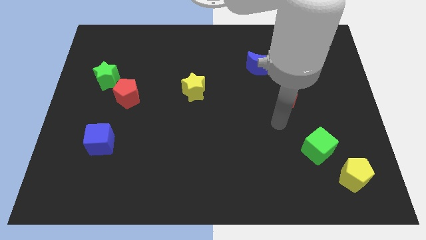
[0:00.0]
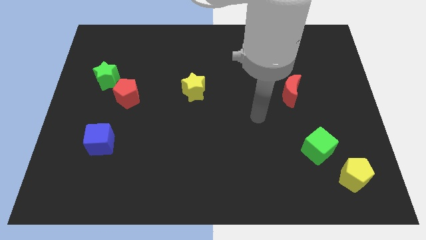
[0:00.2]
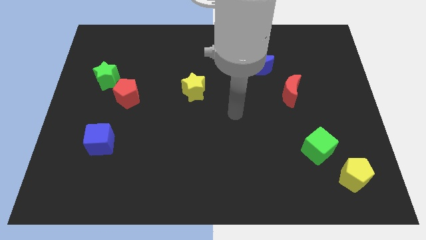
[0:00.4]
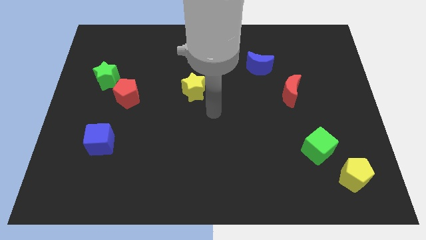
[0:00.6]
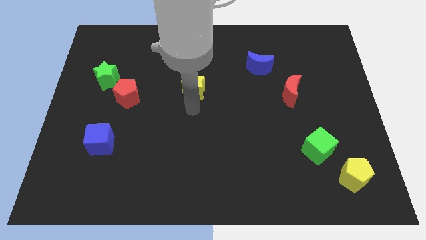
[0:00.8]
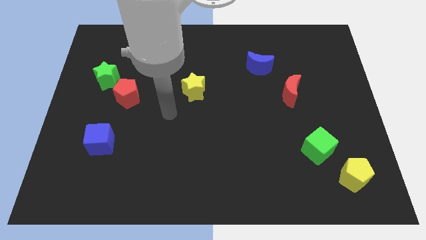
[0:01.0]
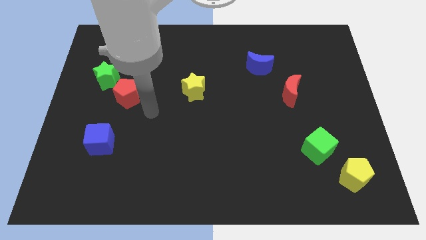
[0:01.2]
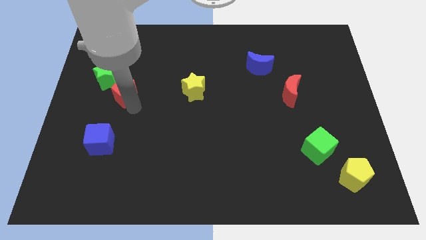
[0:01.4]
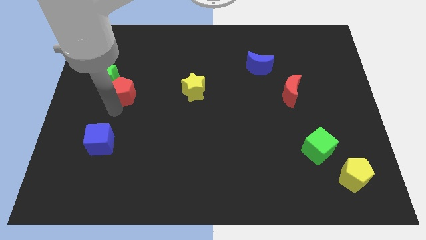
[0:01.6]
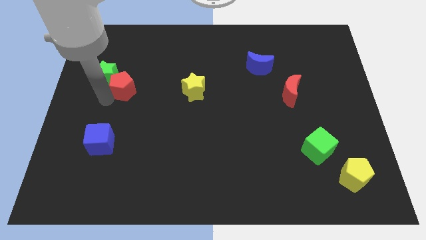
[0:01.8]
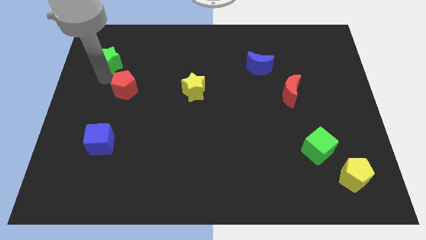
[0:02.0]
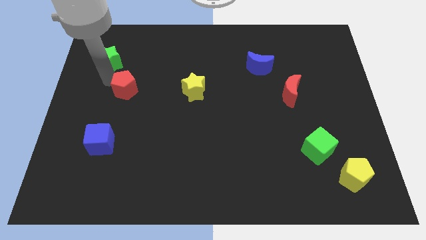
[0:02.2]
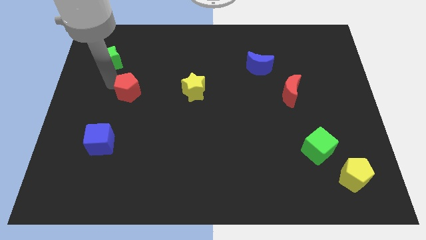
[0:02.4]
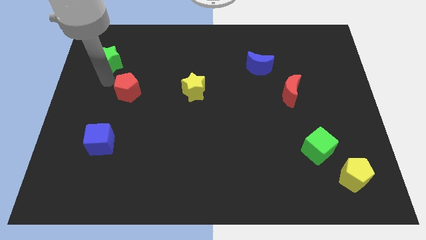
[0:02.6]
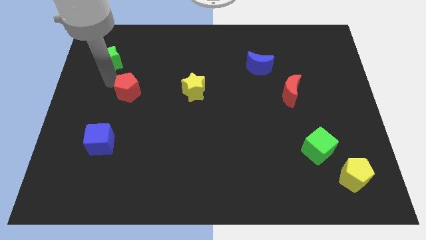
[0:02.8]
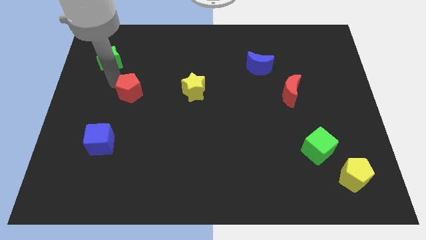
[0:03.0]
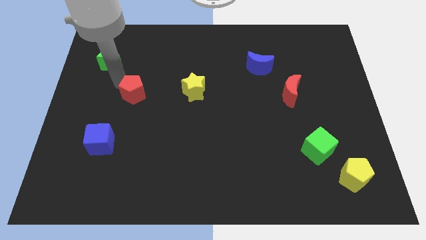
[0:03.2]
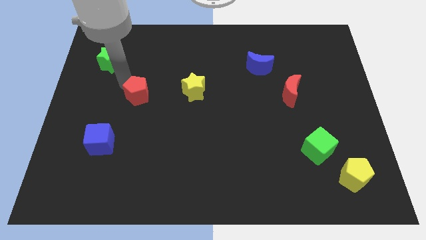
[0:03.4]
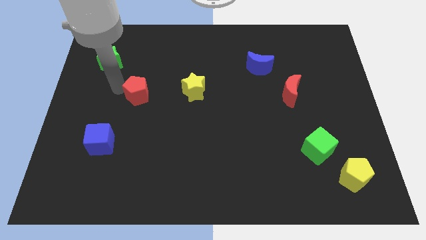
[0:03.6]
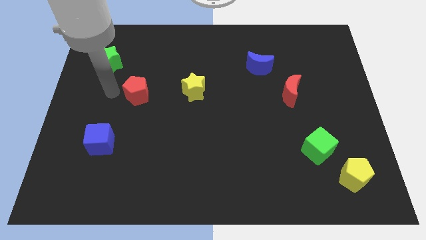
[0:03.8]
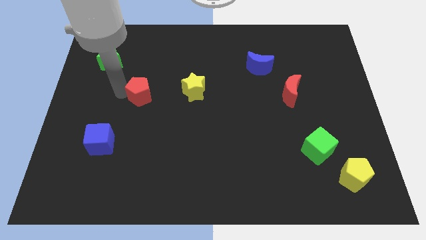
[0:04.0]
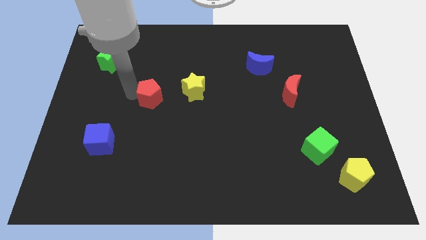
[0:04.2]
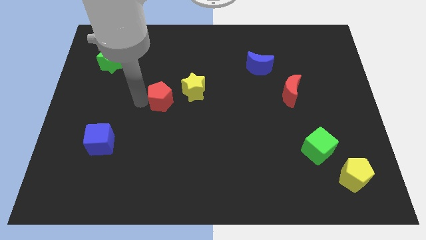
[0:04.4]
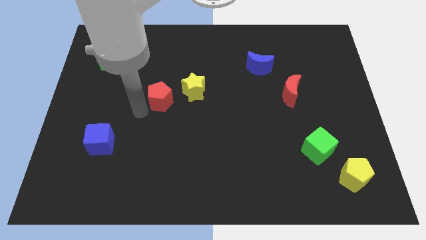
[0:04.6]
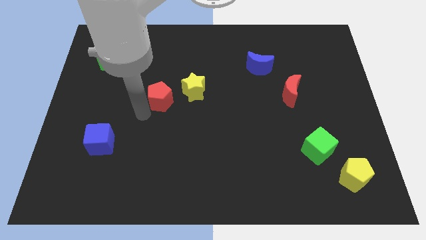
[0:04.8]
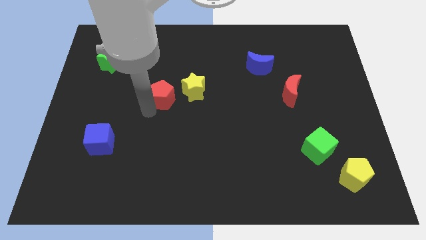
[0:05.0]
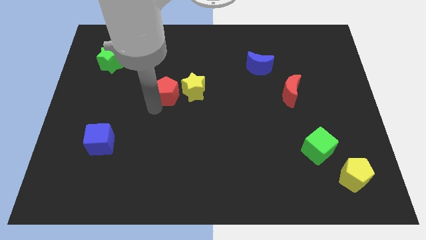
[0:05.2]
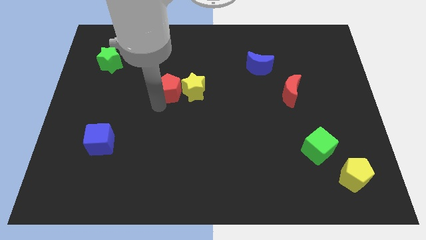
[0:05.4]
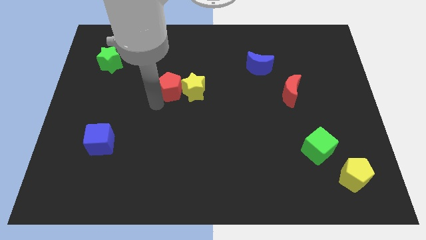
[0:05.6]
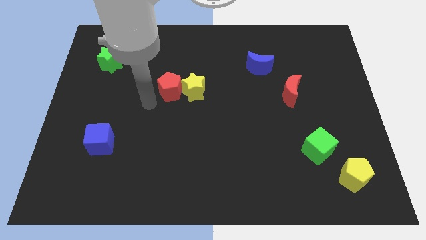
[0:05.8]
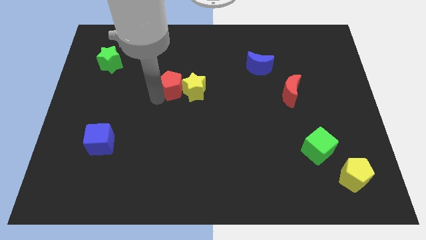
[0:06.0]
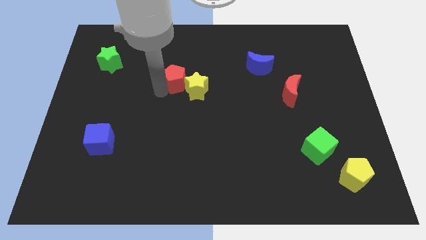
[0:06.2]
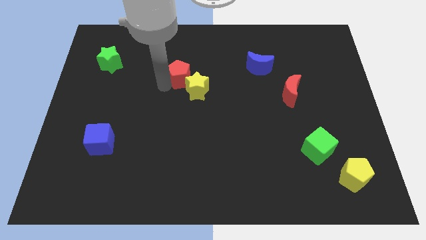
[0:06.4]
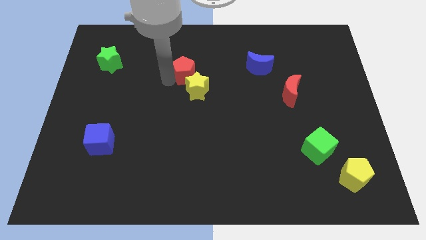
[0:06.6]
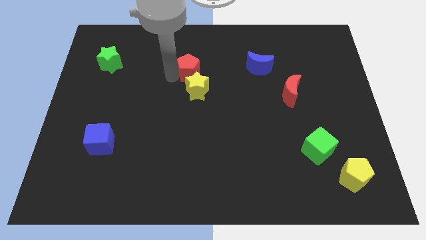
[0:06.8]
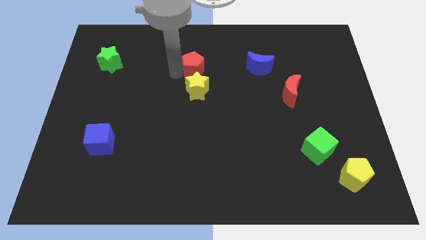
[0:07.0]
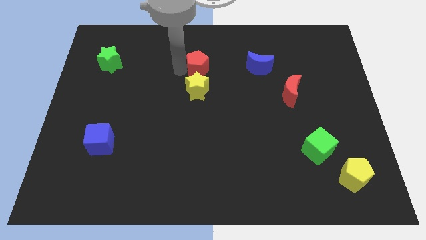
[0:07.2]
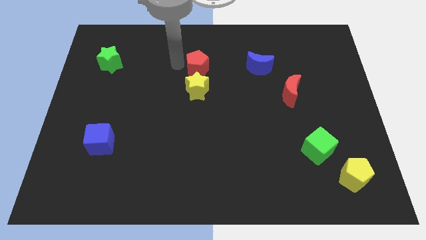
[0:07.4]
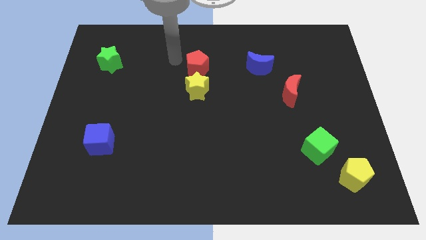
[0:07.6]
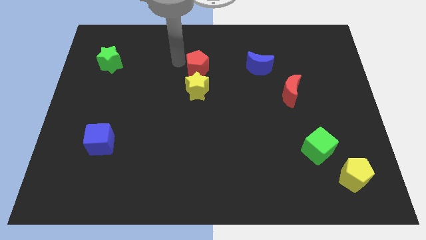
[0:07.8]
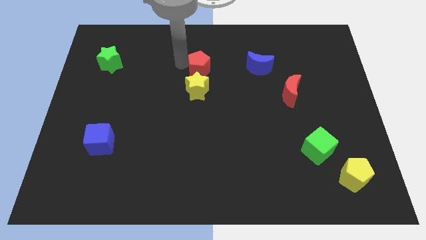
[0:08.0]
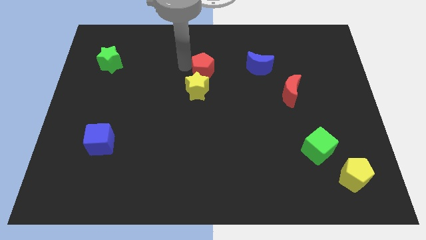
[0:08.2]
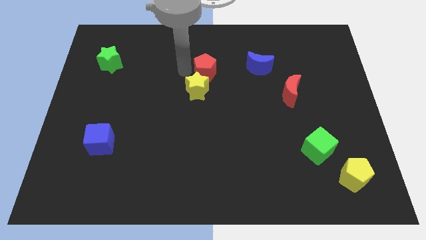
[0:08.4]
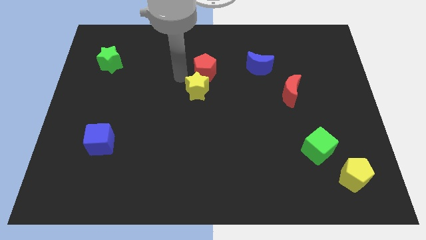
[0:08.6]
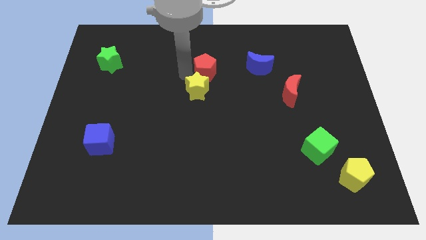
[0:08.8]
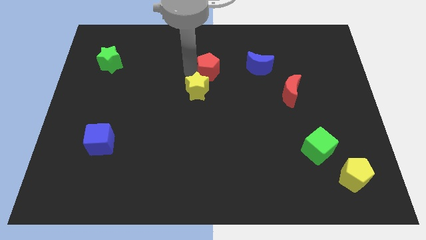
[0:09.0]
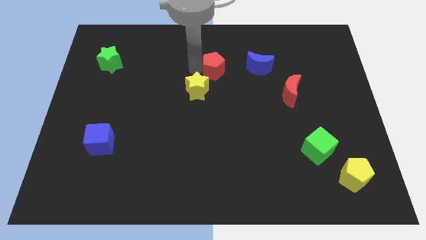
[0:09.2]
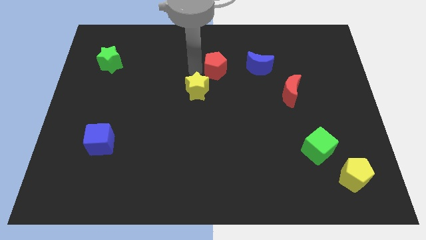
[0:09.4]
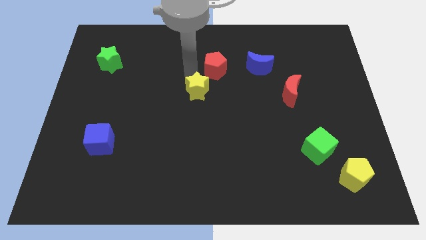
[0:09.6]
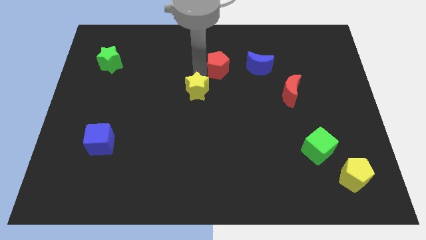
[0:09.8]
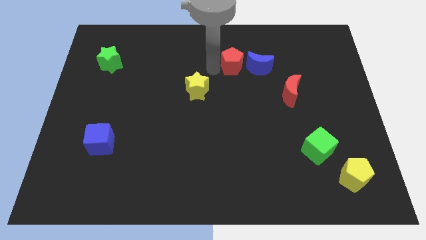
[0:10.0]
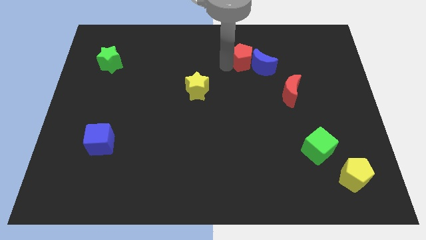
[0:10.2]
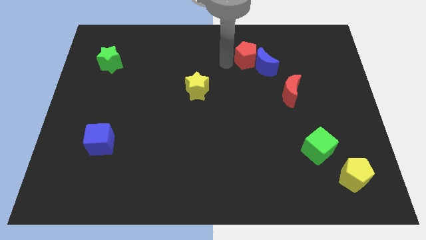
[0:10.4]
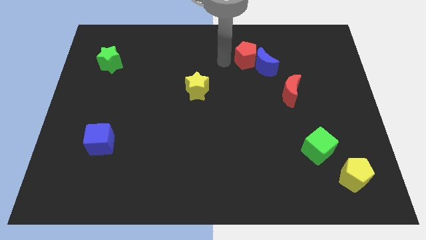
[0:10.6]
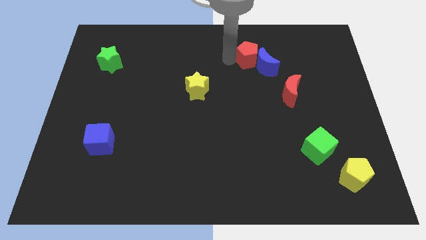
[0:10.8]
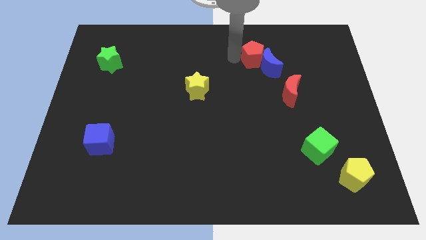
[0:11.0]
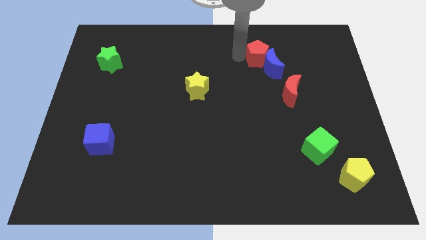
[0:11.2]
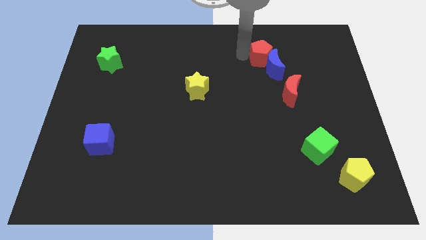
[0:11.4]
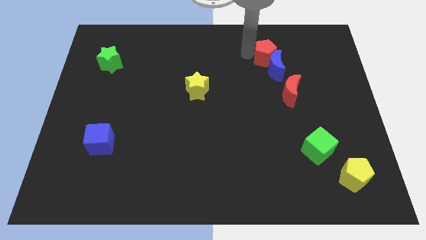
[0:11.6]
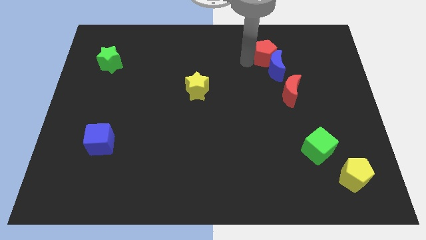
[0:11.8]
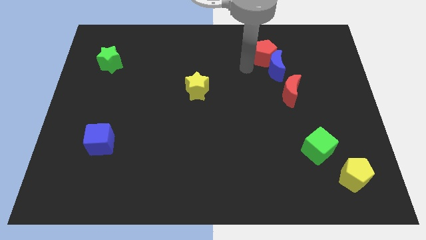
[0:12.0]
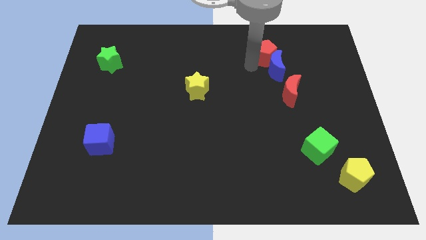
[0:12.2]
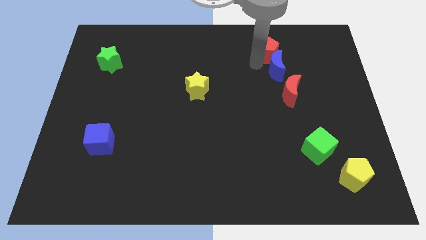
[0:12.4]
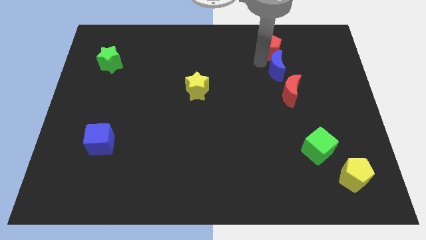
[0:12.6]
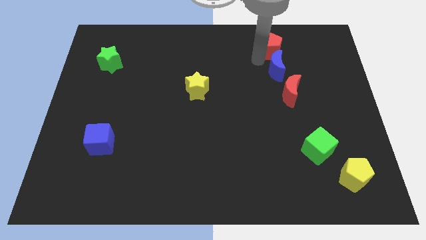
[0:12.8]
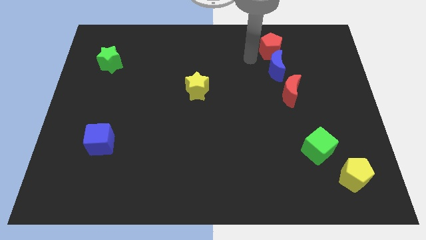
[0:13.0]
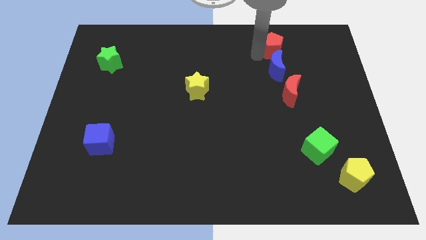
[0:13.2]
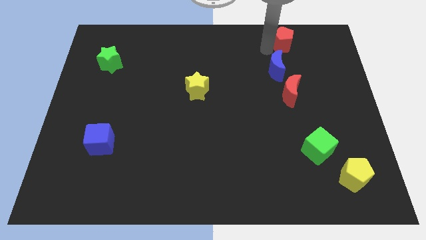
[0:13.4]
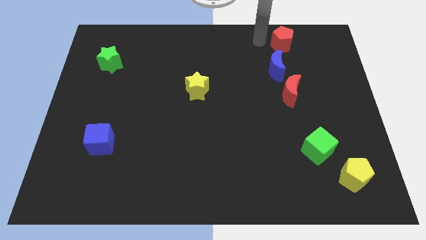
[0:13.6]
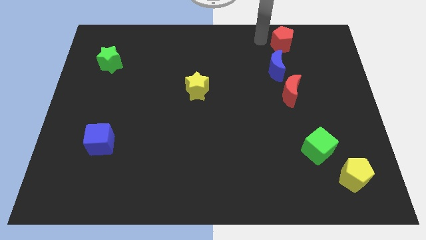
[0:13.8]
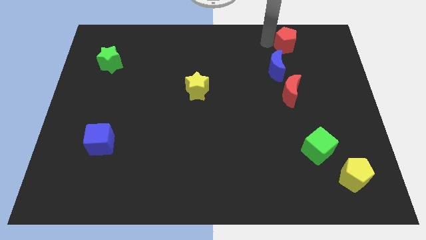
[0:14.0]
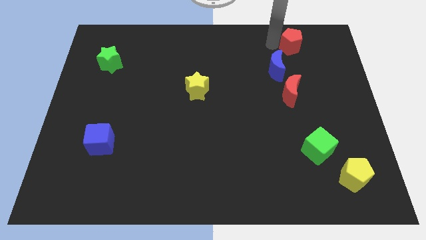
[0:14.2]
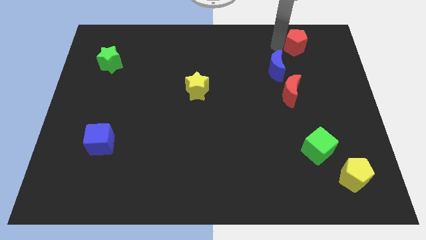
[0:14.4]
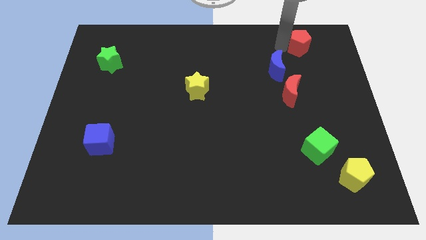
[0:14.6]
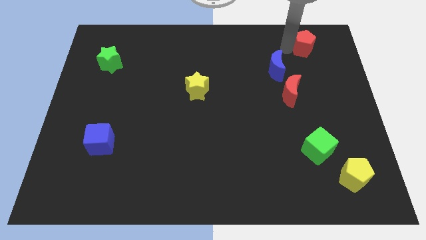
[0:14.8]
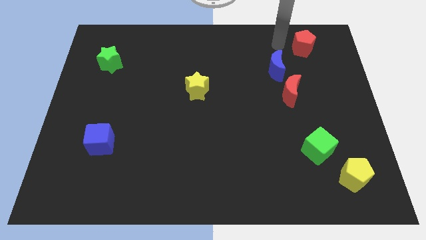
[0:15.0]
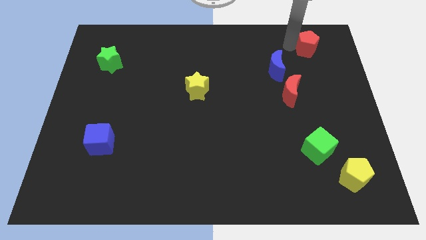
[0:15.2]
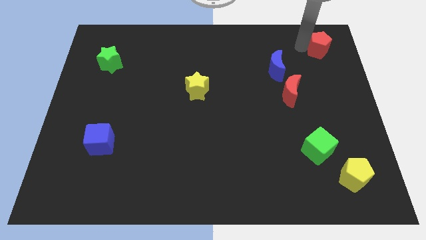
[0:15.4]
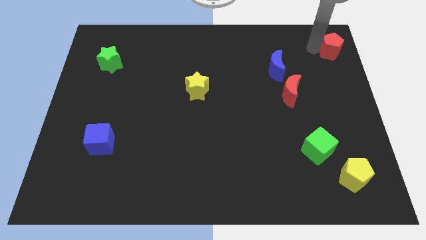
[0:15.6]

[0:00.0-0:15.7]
put the red pentagon to the top right
